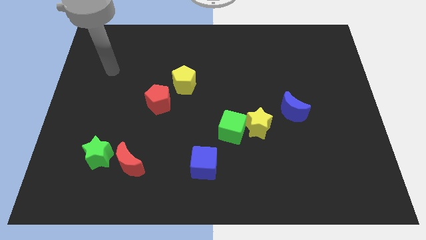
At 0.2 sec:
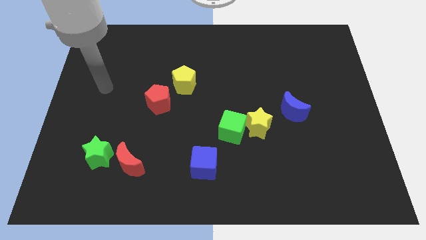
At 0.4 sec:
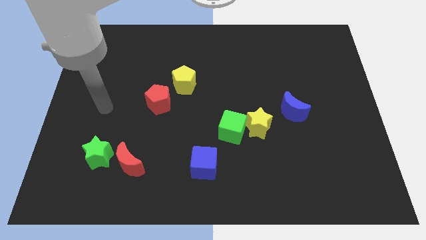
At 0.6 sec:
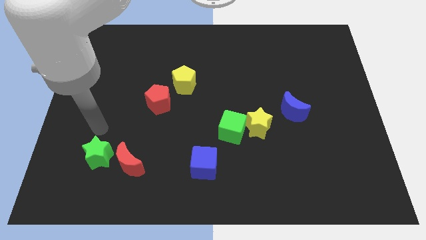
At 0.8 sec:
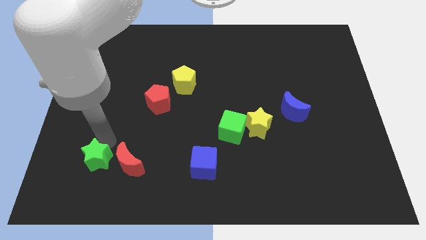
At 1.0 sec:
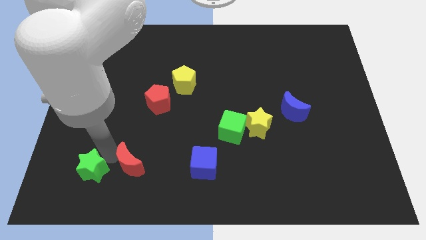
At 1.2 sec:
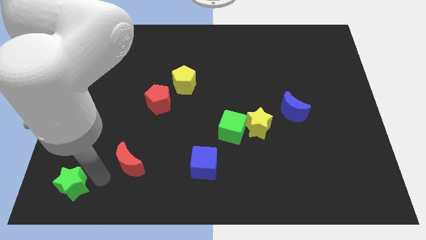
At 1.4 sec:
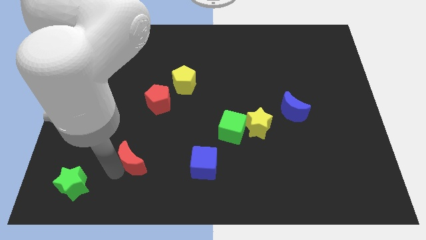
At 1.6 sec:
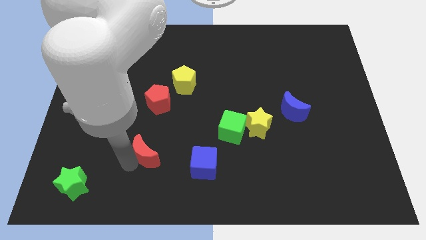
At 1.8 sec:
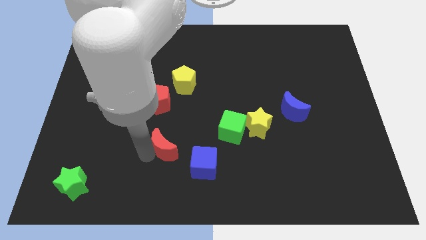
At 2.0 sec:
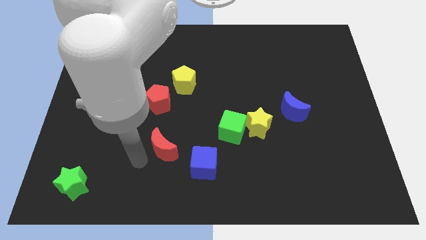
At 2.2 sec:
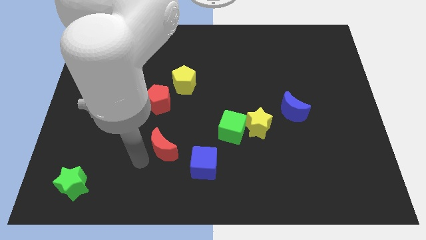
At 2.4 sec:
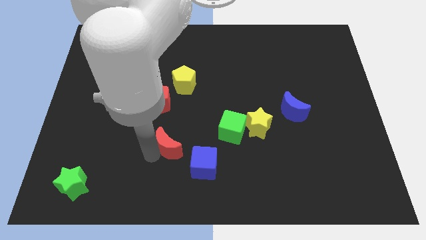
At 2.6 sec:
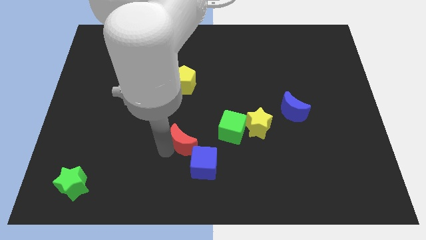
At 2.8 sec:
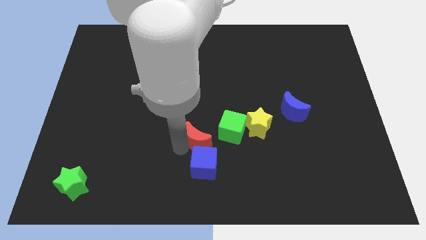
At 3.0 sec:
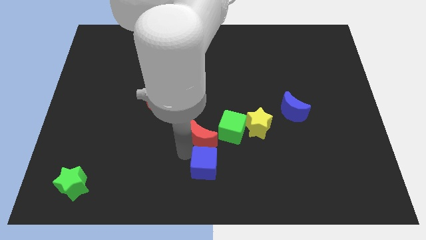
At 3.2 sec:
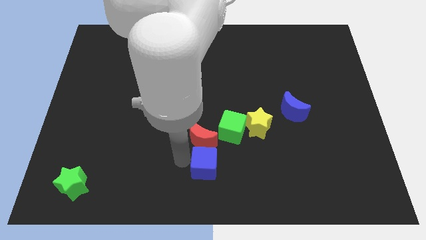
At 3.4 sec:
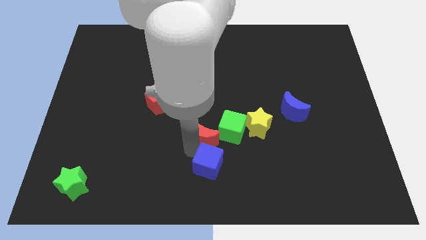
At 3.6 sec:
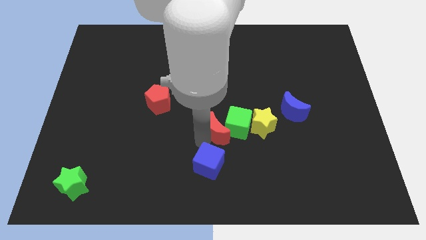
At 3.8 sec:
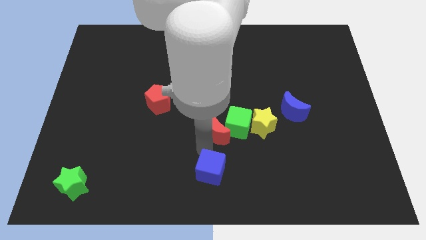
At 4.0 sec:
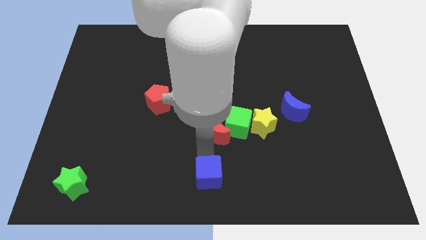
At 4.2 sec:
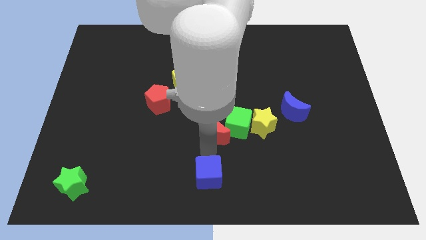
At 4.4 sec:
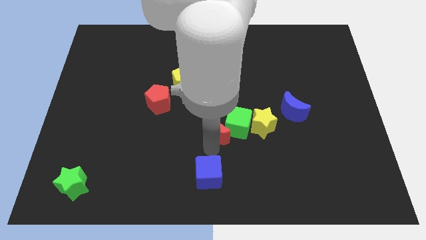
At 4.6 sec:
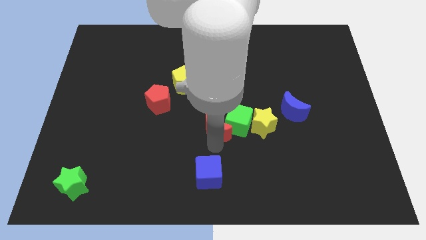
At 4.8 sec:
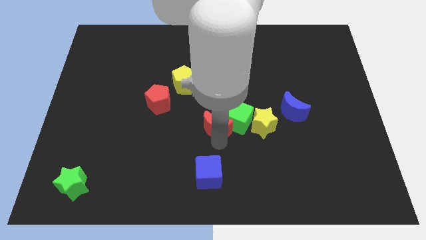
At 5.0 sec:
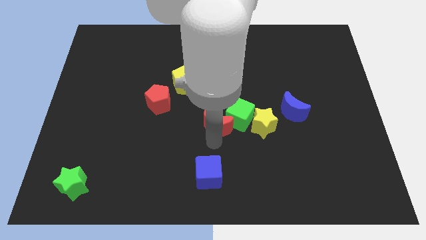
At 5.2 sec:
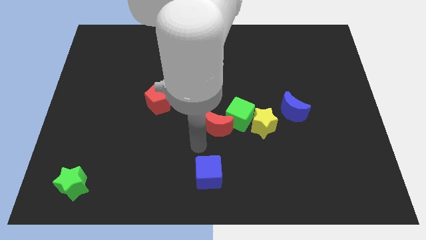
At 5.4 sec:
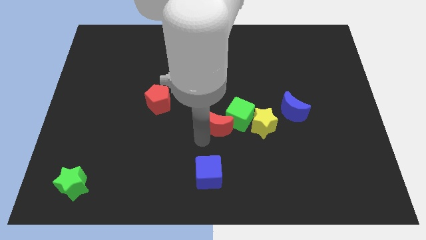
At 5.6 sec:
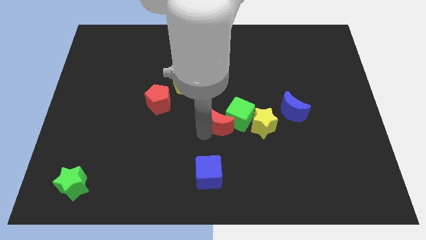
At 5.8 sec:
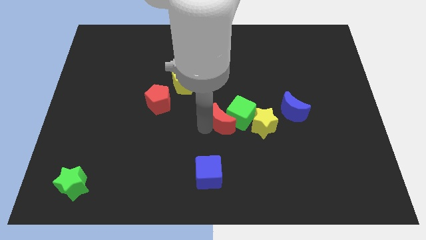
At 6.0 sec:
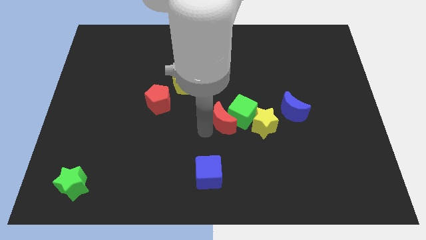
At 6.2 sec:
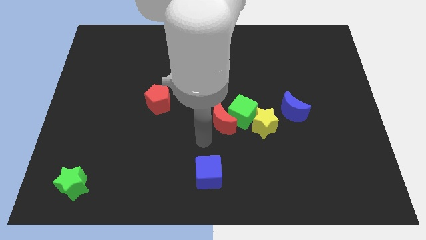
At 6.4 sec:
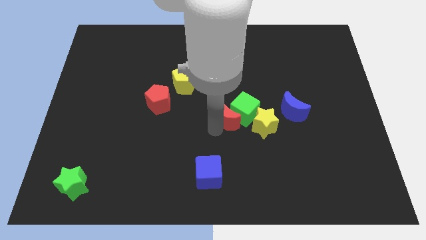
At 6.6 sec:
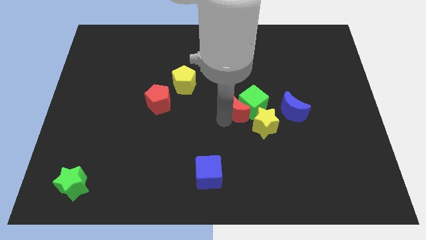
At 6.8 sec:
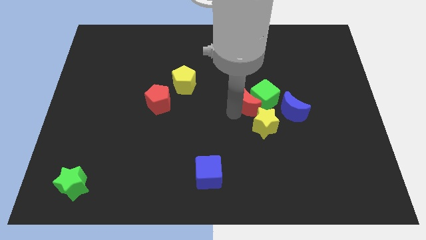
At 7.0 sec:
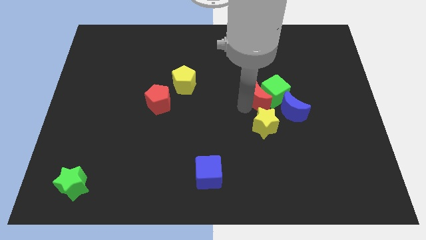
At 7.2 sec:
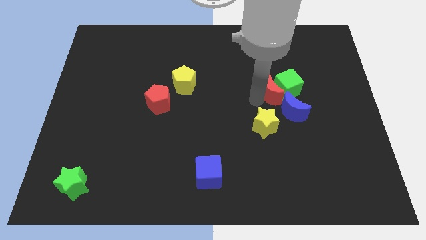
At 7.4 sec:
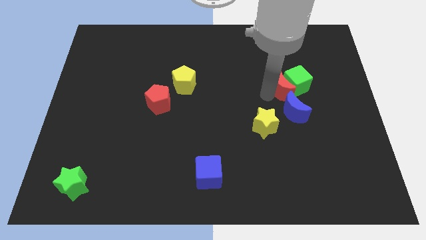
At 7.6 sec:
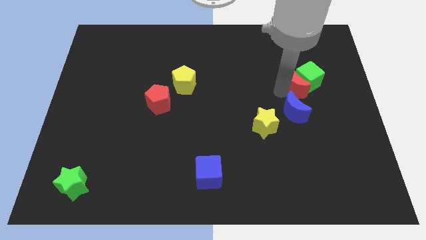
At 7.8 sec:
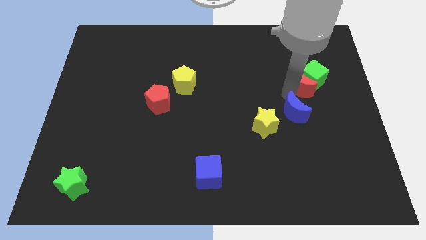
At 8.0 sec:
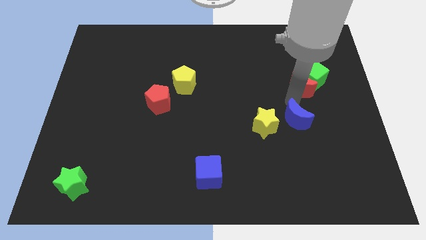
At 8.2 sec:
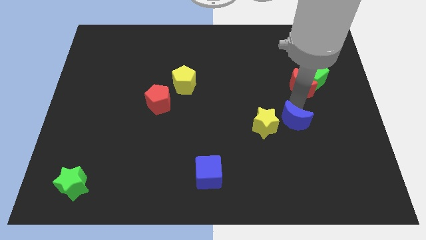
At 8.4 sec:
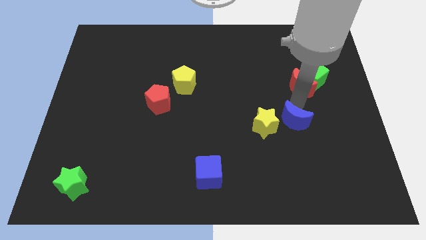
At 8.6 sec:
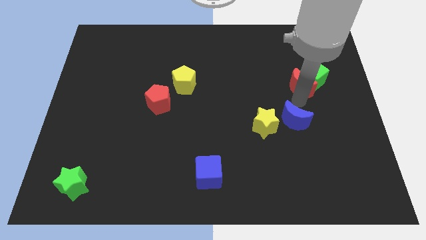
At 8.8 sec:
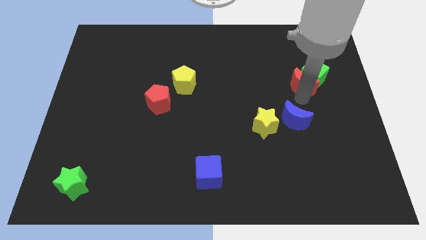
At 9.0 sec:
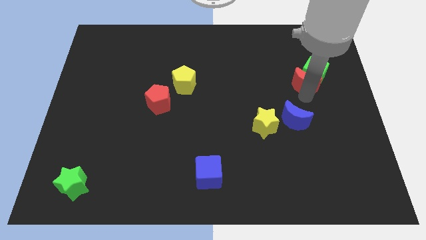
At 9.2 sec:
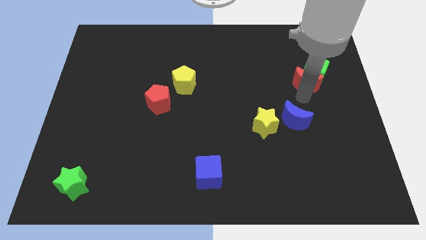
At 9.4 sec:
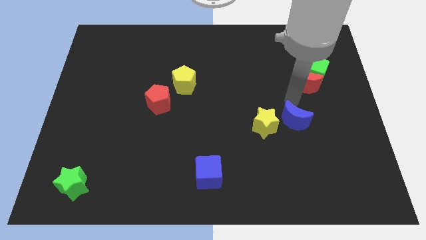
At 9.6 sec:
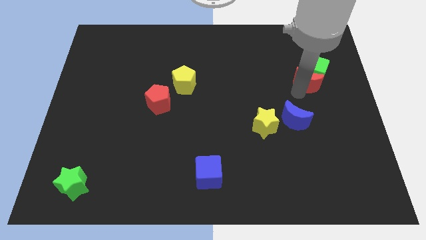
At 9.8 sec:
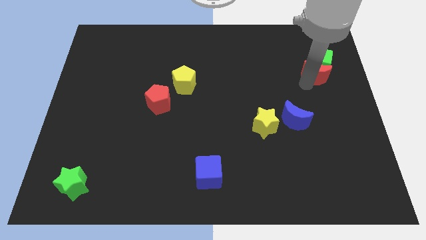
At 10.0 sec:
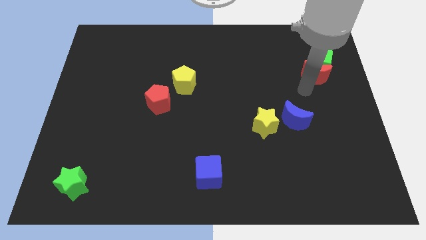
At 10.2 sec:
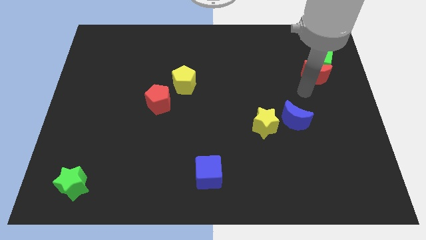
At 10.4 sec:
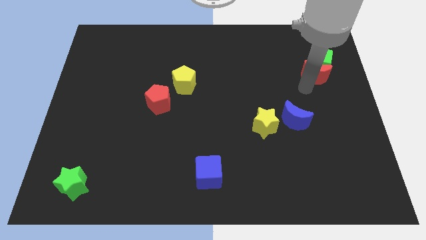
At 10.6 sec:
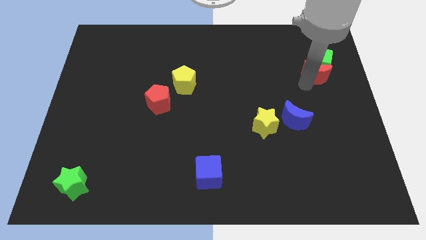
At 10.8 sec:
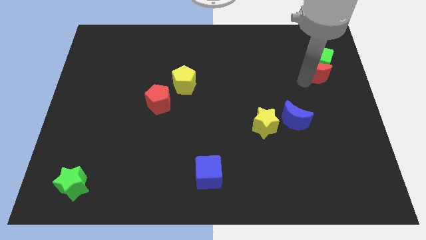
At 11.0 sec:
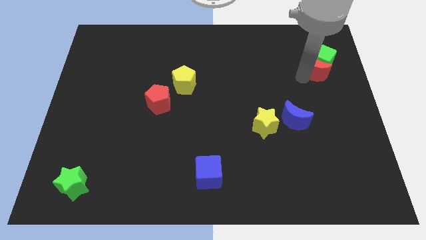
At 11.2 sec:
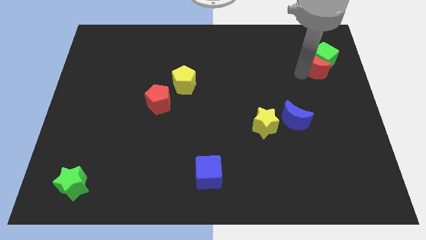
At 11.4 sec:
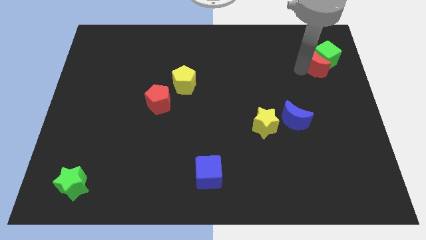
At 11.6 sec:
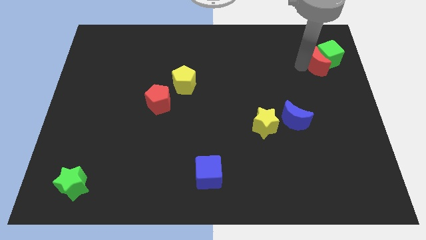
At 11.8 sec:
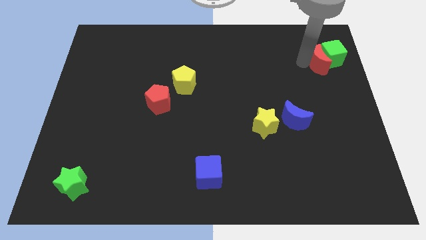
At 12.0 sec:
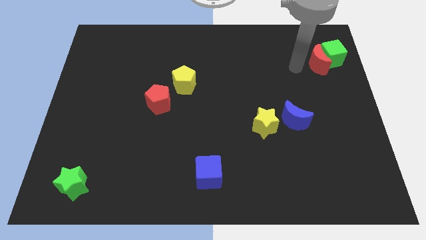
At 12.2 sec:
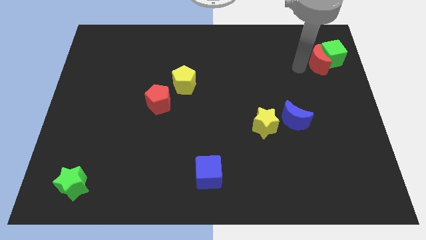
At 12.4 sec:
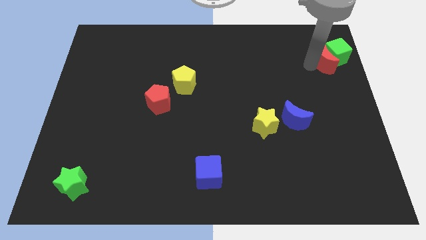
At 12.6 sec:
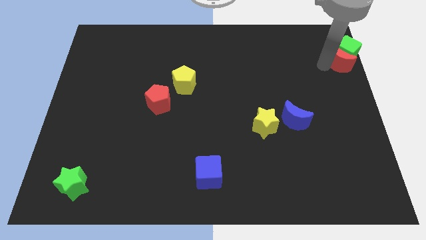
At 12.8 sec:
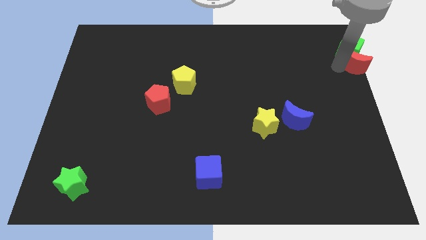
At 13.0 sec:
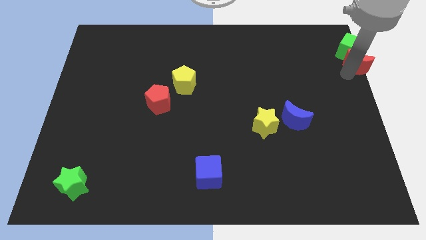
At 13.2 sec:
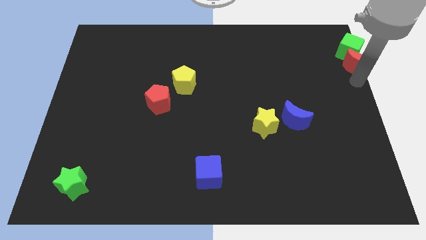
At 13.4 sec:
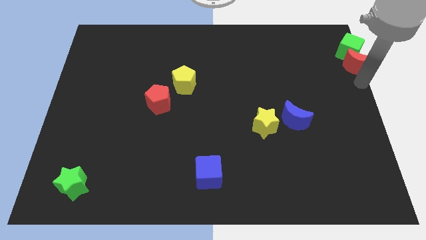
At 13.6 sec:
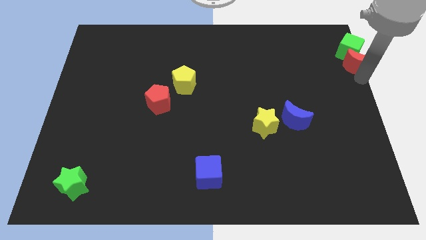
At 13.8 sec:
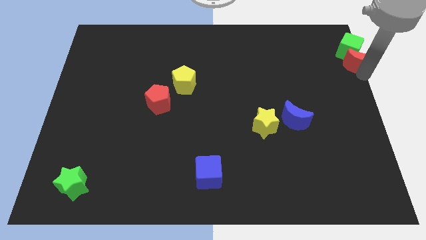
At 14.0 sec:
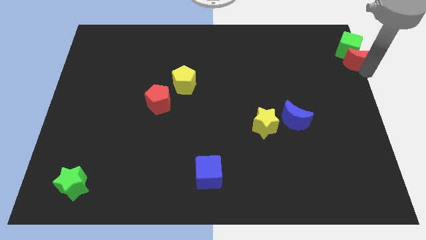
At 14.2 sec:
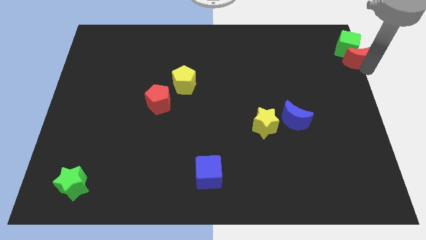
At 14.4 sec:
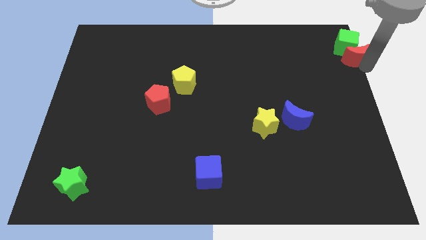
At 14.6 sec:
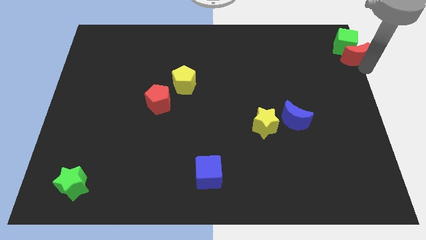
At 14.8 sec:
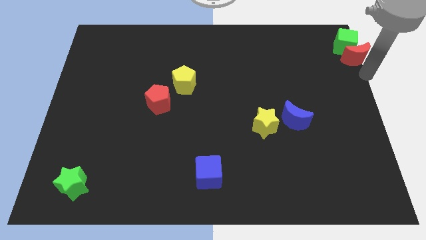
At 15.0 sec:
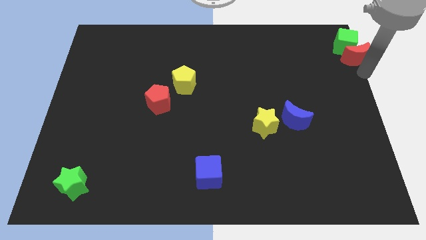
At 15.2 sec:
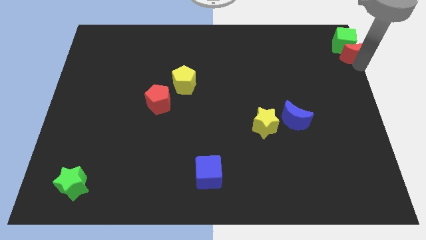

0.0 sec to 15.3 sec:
slide the red moon to the top right of the board
